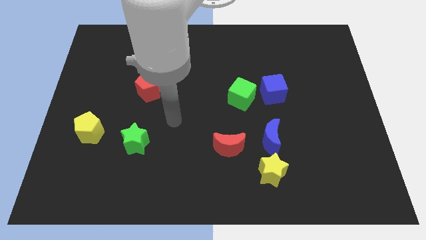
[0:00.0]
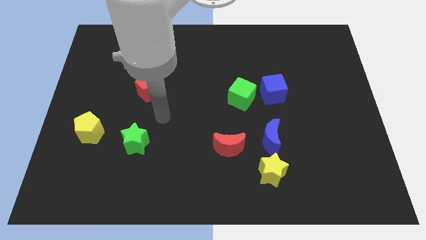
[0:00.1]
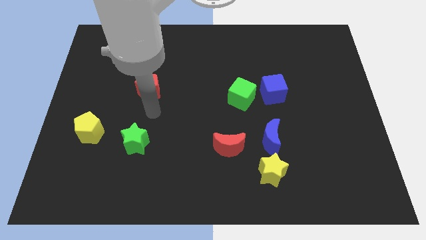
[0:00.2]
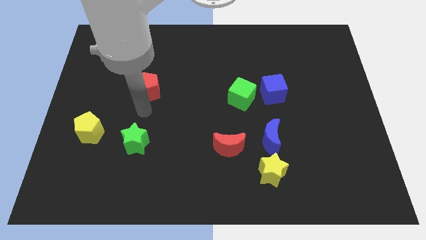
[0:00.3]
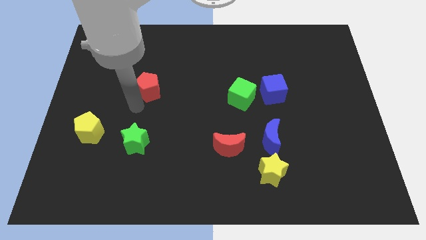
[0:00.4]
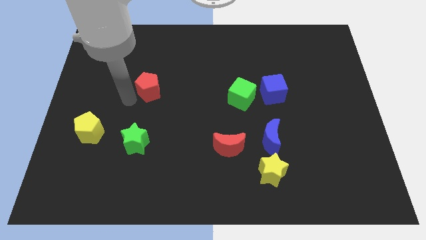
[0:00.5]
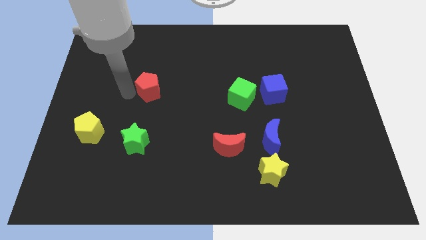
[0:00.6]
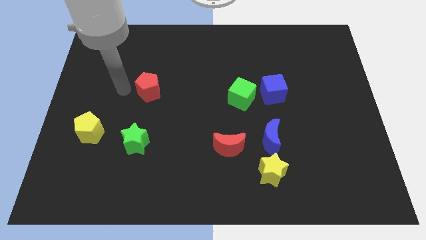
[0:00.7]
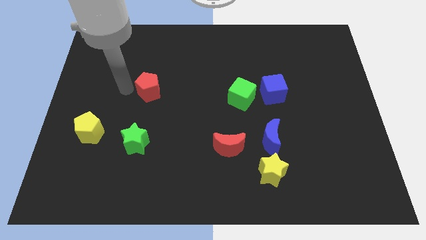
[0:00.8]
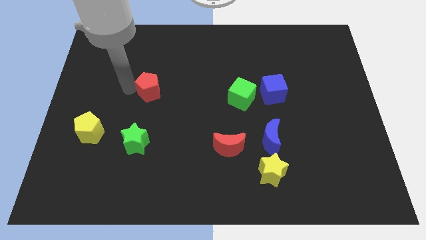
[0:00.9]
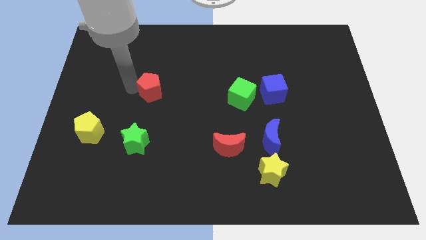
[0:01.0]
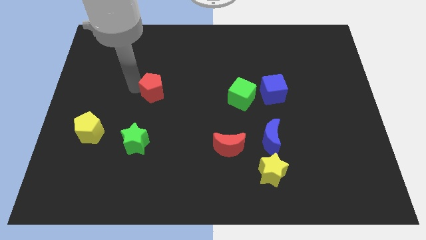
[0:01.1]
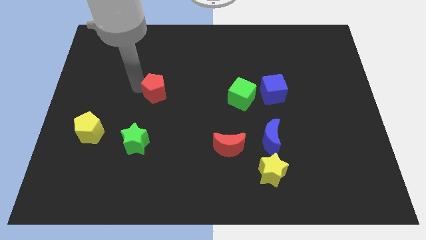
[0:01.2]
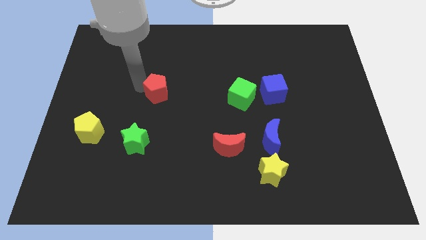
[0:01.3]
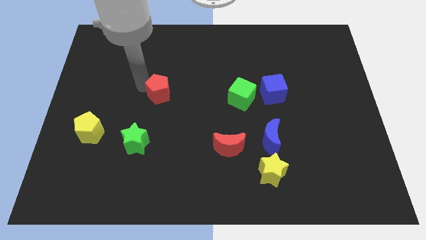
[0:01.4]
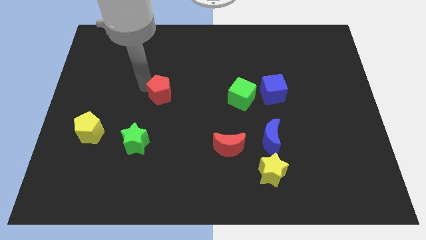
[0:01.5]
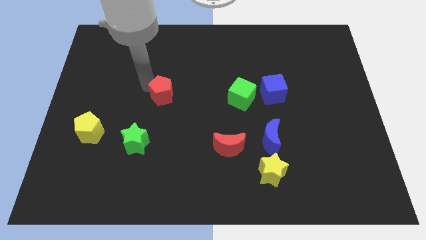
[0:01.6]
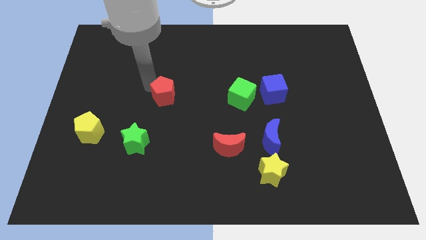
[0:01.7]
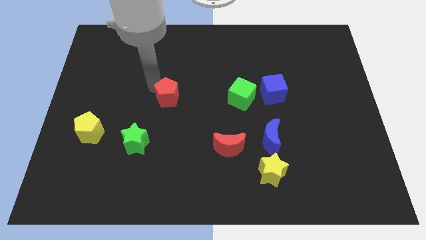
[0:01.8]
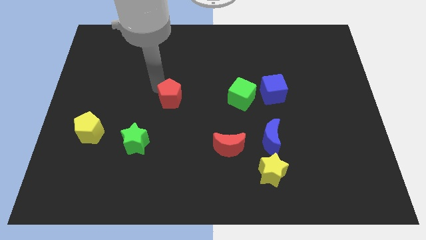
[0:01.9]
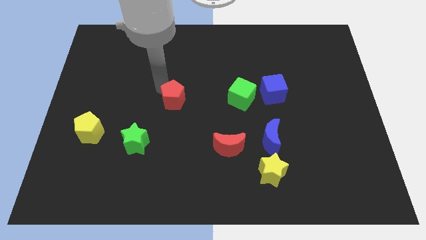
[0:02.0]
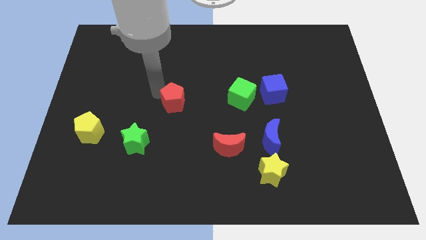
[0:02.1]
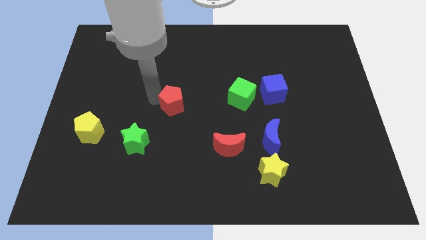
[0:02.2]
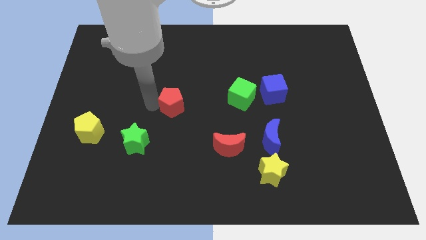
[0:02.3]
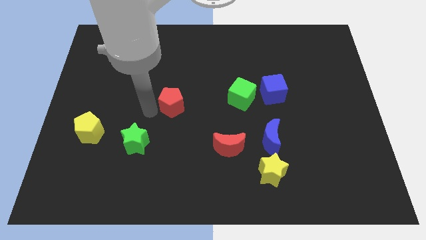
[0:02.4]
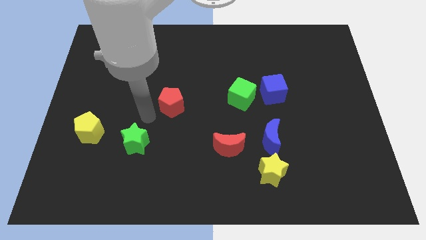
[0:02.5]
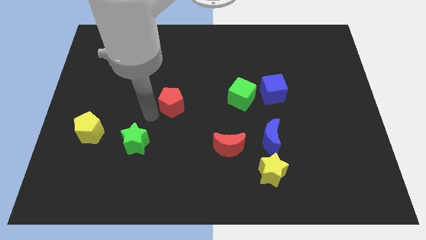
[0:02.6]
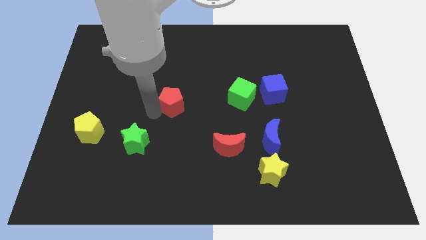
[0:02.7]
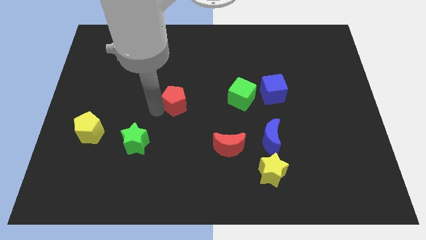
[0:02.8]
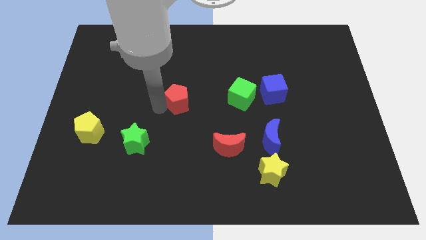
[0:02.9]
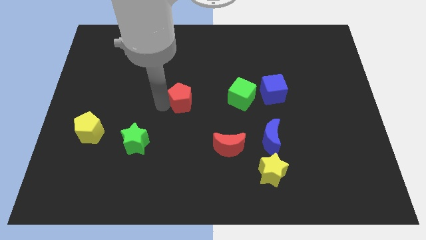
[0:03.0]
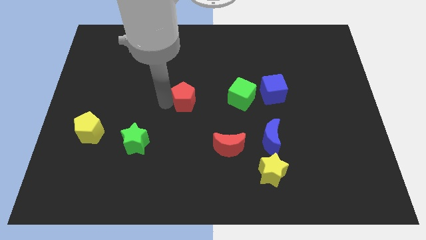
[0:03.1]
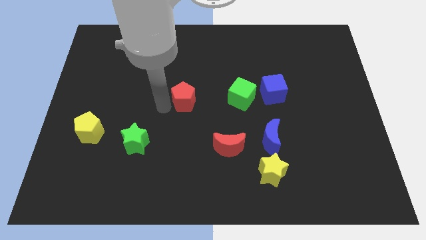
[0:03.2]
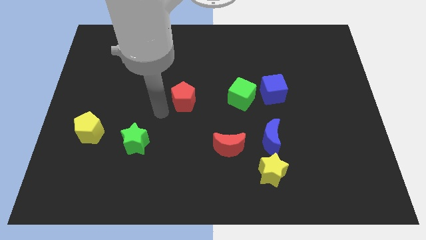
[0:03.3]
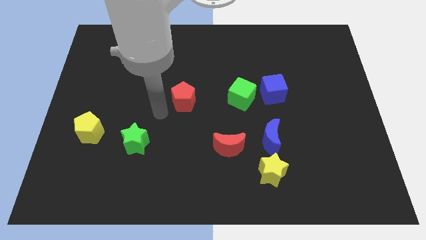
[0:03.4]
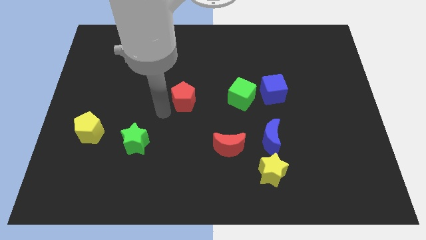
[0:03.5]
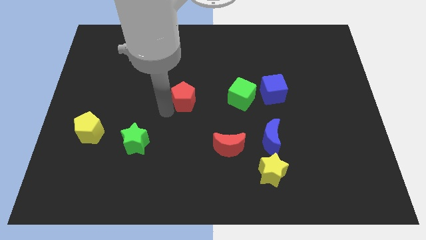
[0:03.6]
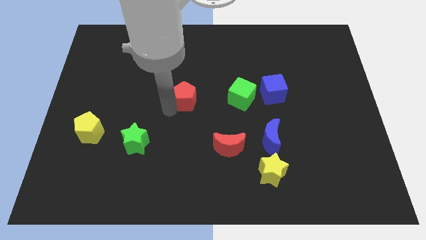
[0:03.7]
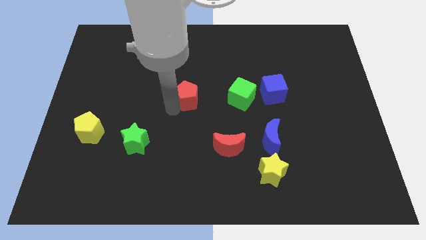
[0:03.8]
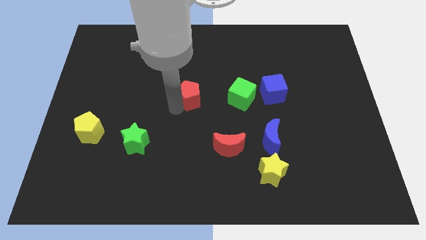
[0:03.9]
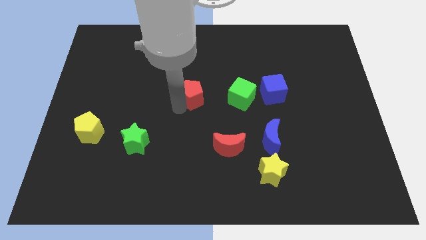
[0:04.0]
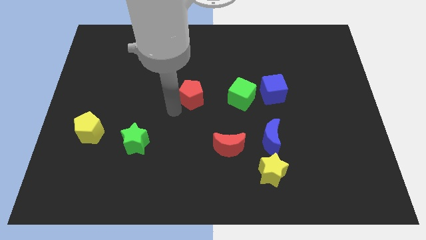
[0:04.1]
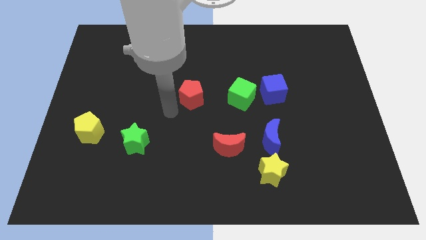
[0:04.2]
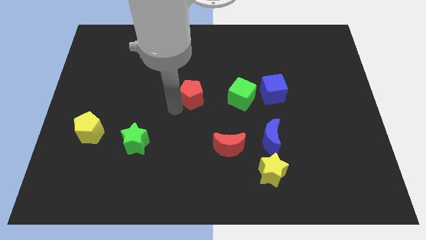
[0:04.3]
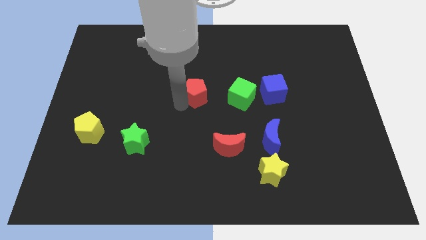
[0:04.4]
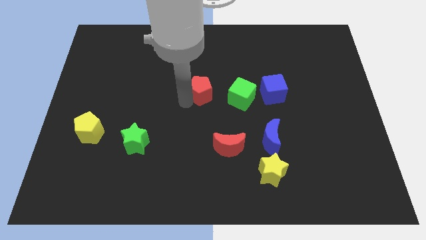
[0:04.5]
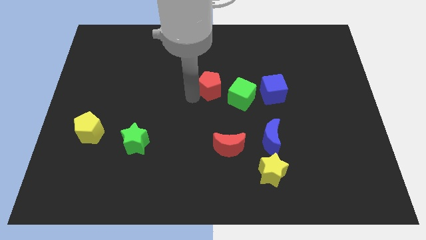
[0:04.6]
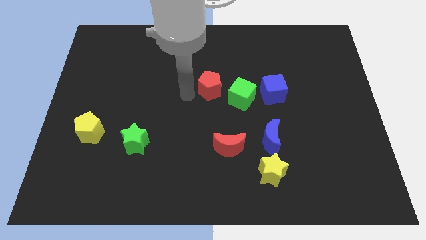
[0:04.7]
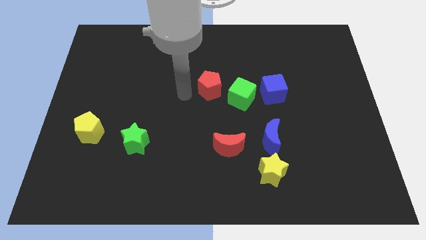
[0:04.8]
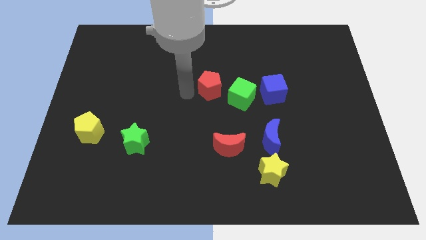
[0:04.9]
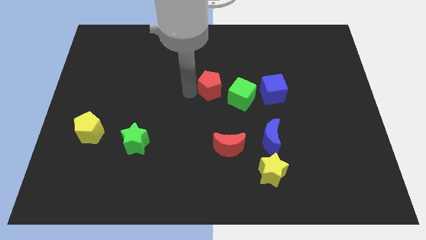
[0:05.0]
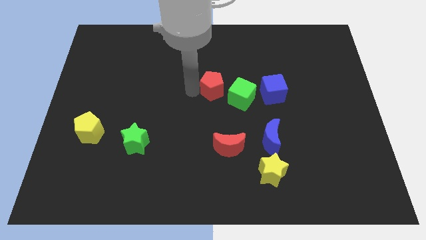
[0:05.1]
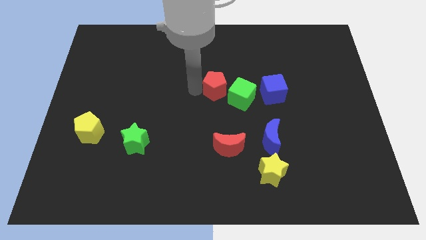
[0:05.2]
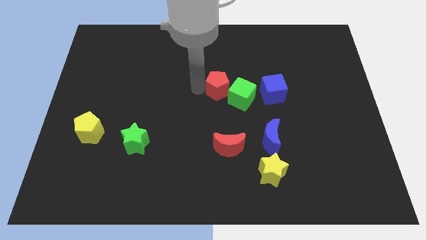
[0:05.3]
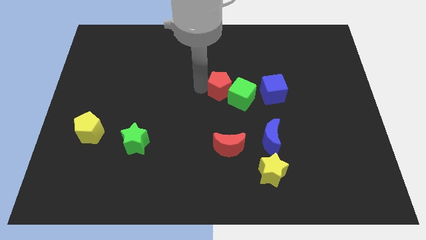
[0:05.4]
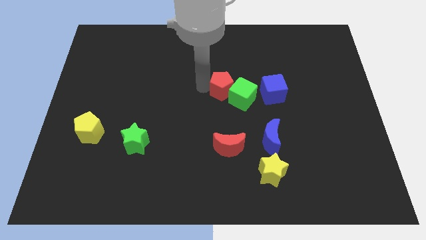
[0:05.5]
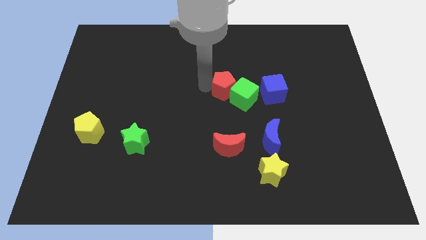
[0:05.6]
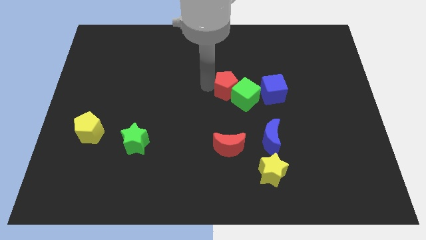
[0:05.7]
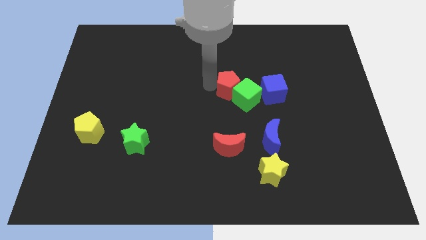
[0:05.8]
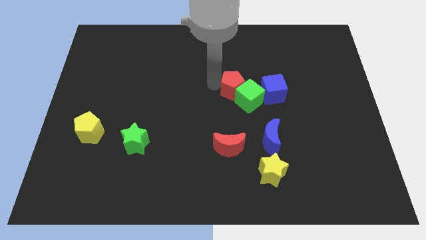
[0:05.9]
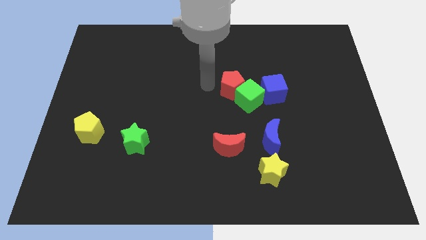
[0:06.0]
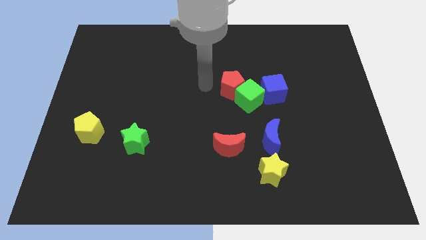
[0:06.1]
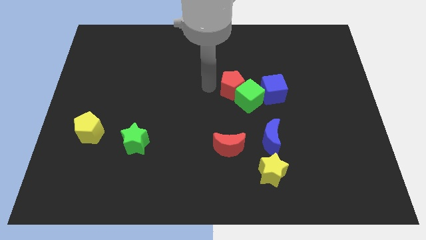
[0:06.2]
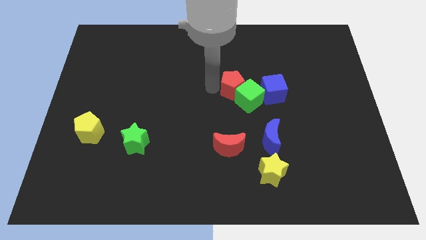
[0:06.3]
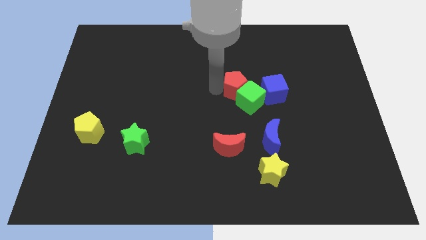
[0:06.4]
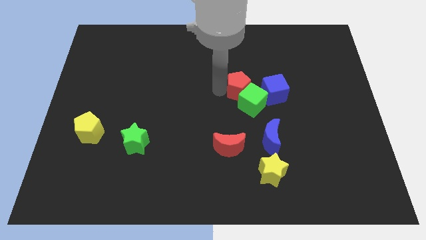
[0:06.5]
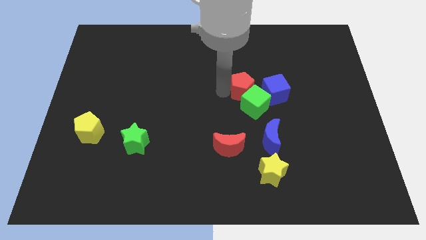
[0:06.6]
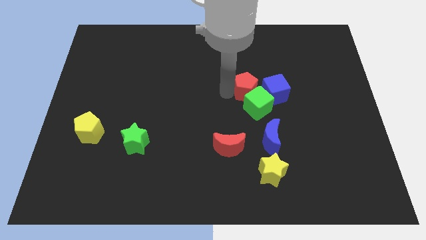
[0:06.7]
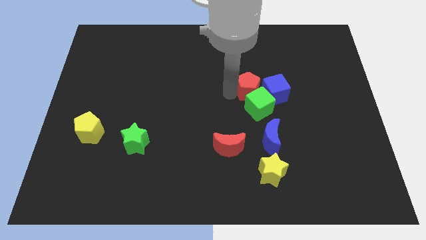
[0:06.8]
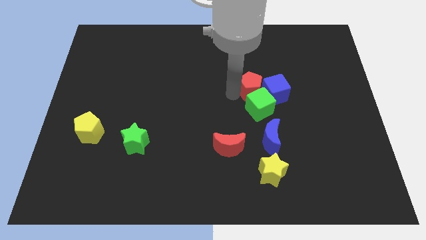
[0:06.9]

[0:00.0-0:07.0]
slide the red pentagon next to the blue cube
